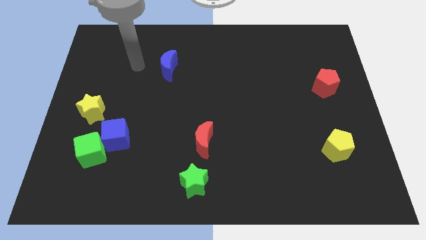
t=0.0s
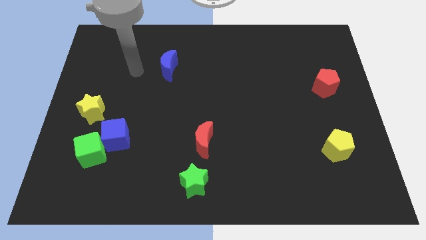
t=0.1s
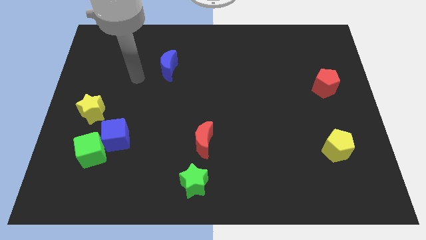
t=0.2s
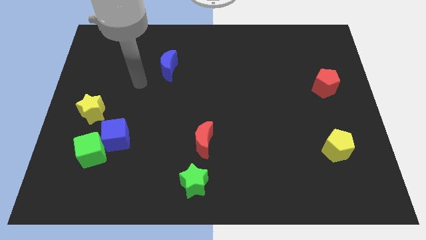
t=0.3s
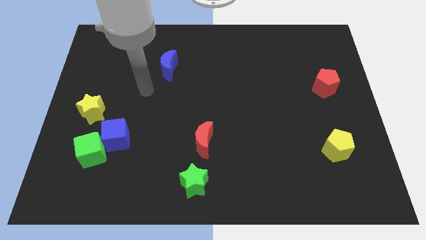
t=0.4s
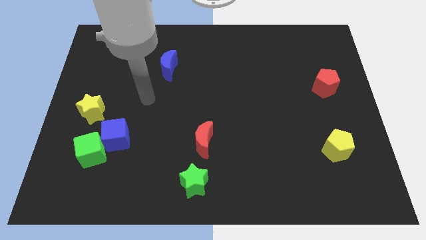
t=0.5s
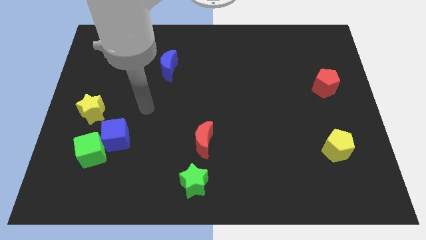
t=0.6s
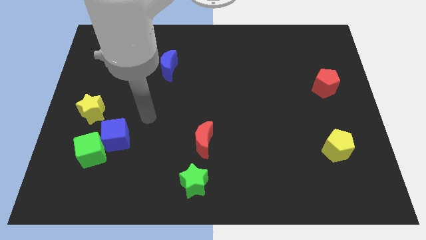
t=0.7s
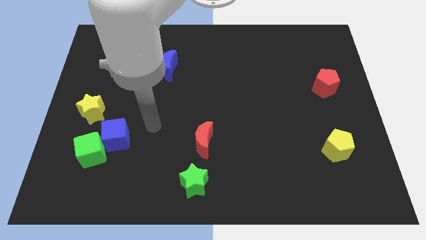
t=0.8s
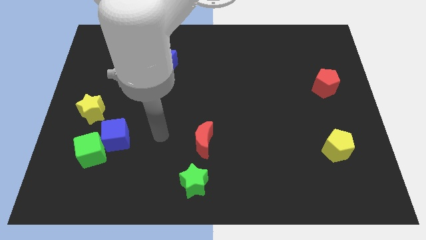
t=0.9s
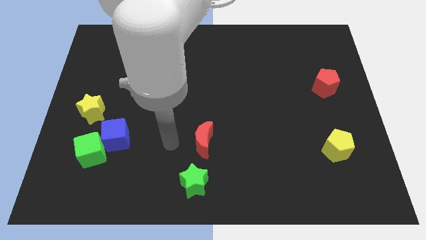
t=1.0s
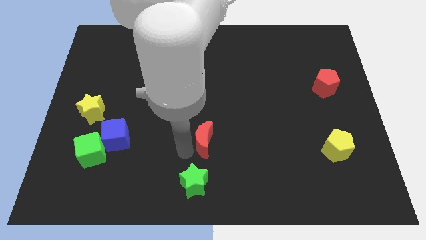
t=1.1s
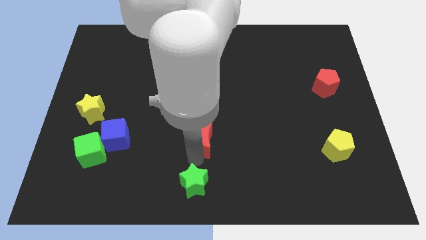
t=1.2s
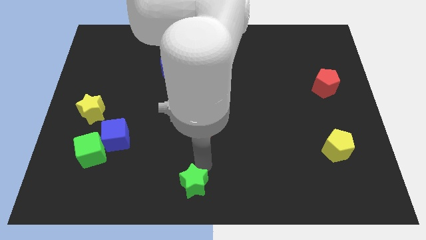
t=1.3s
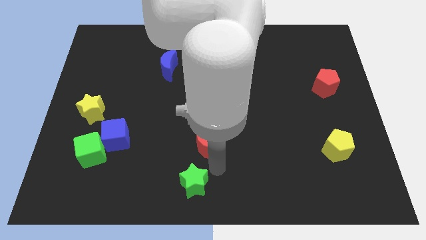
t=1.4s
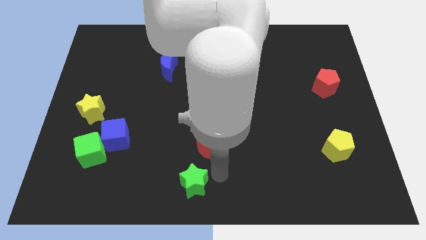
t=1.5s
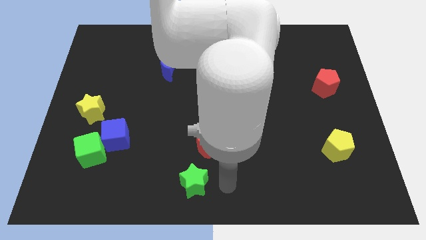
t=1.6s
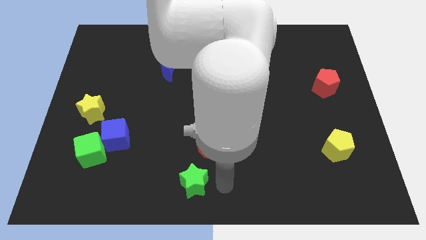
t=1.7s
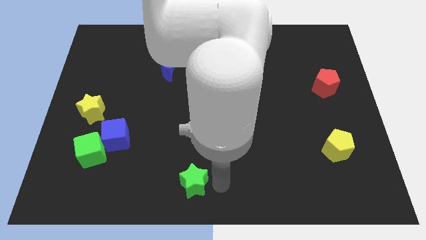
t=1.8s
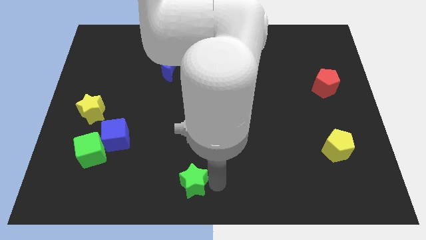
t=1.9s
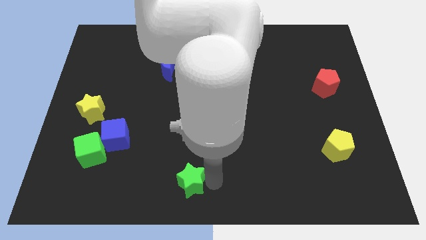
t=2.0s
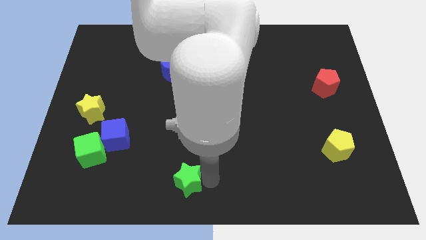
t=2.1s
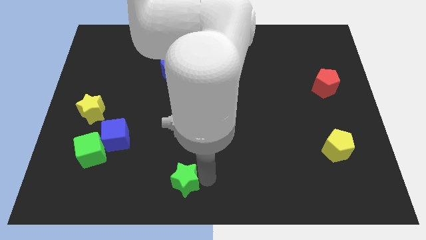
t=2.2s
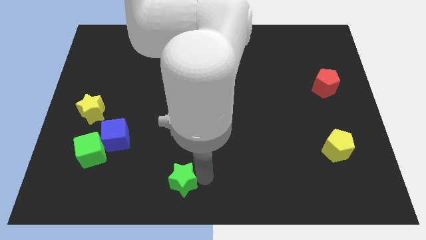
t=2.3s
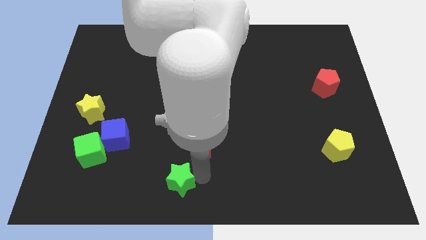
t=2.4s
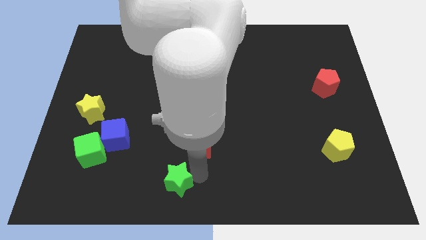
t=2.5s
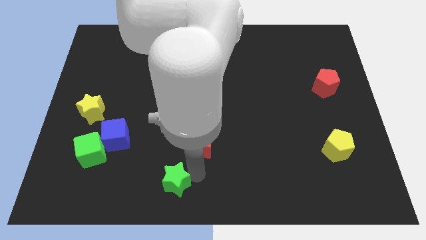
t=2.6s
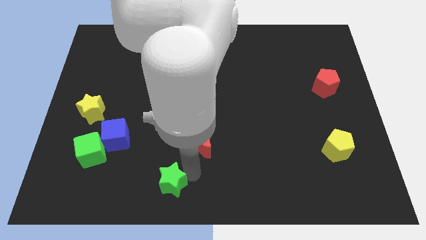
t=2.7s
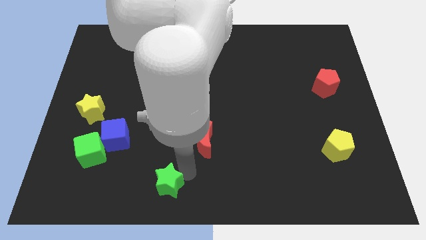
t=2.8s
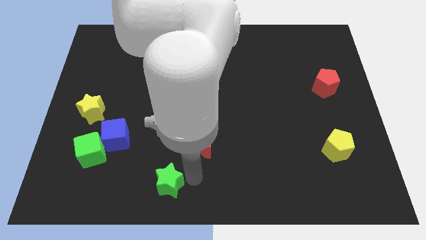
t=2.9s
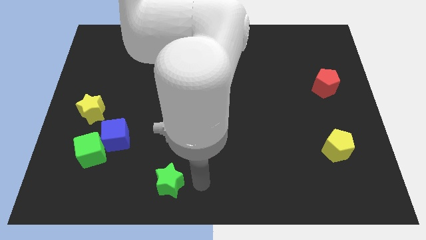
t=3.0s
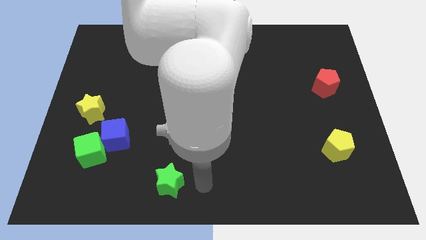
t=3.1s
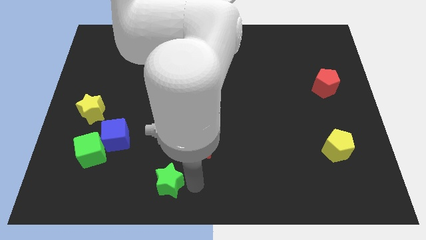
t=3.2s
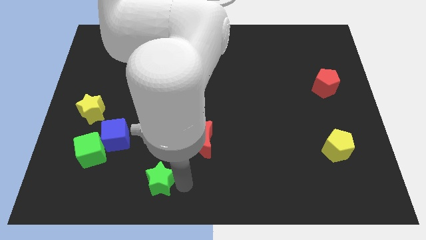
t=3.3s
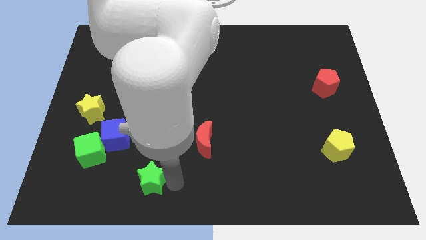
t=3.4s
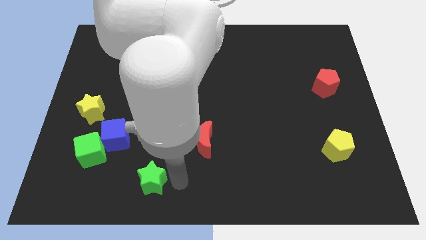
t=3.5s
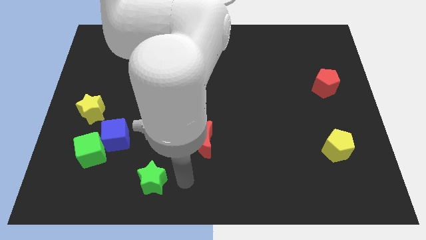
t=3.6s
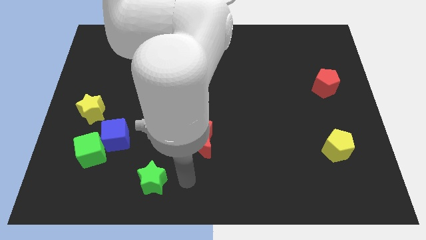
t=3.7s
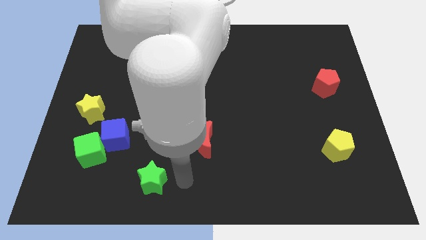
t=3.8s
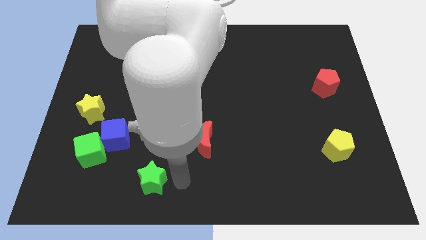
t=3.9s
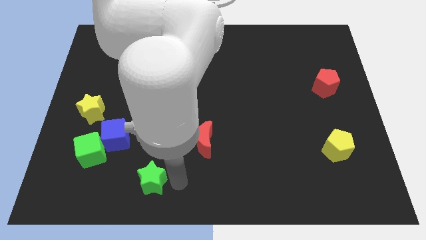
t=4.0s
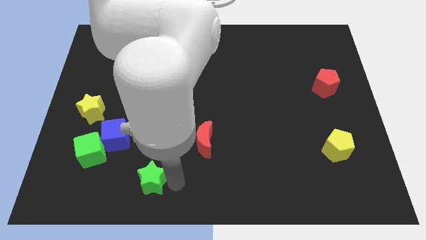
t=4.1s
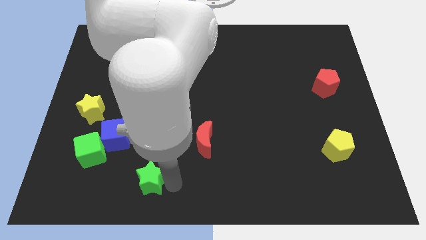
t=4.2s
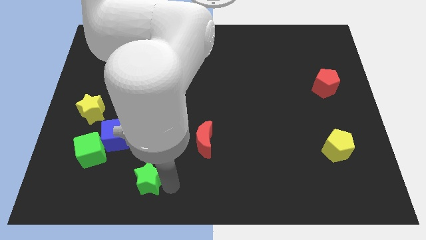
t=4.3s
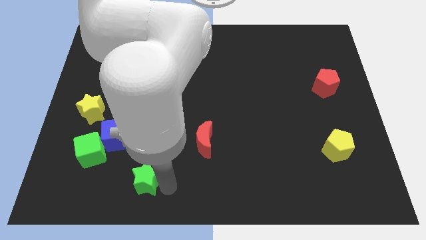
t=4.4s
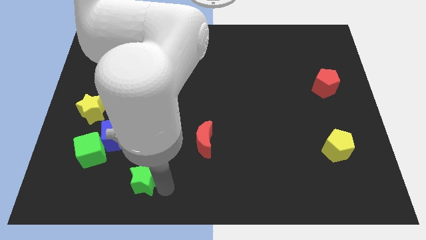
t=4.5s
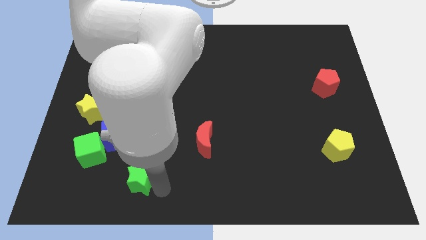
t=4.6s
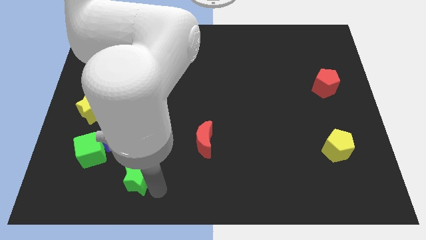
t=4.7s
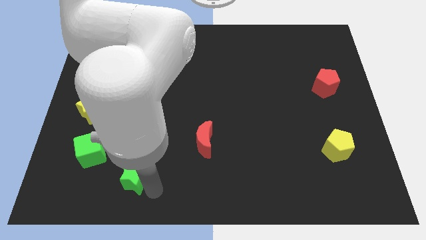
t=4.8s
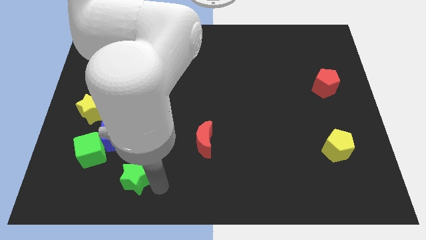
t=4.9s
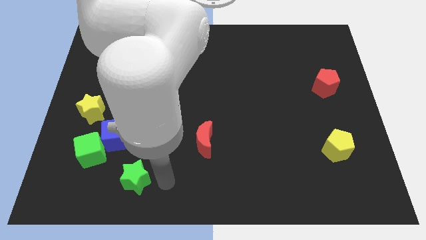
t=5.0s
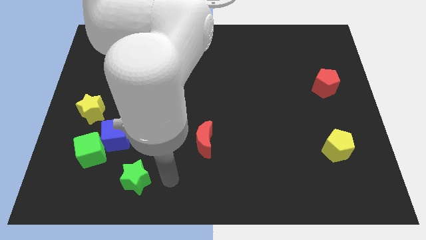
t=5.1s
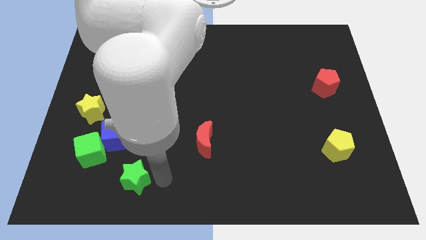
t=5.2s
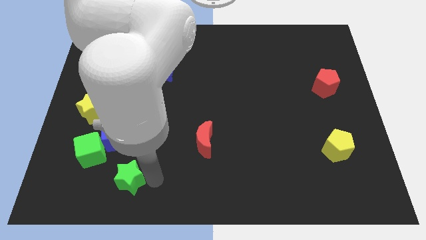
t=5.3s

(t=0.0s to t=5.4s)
put the green star to the bottom side of the blue cube

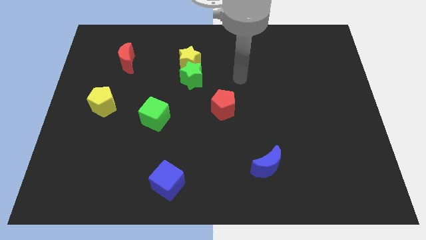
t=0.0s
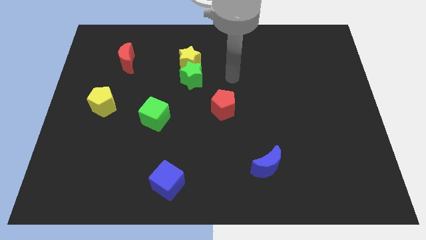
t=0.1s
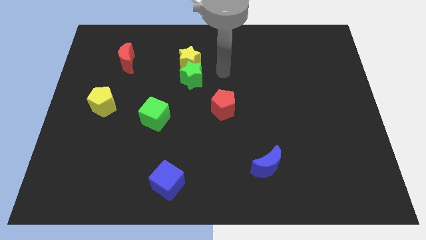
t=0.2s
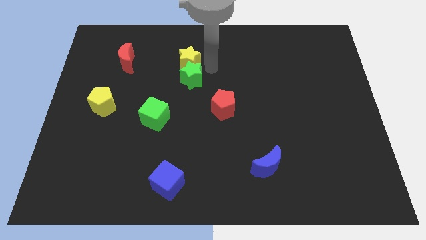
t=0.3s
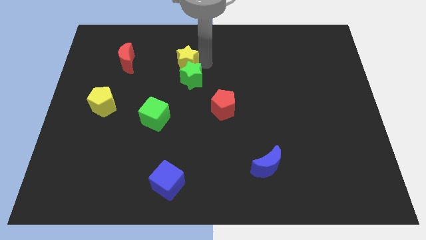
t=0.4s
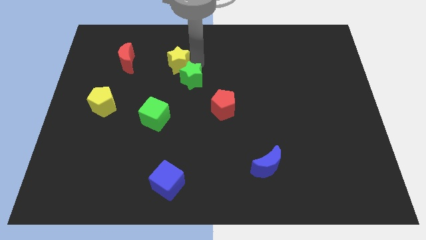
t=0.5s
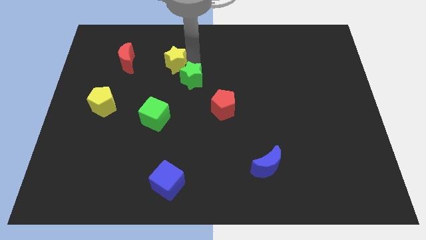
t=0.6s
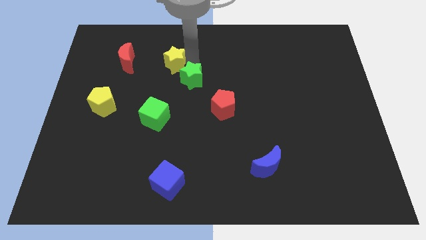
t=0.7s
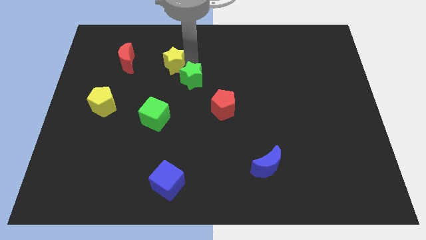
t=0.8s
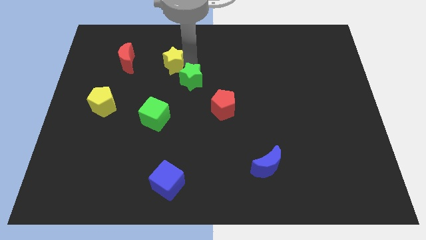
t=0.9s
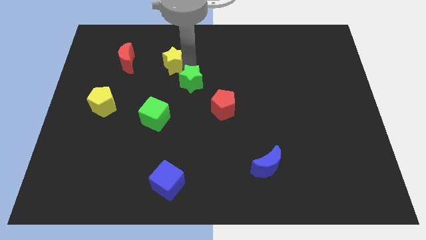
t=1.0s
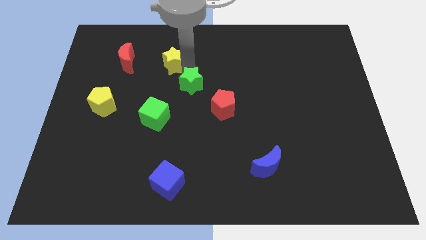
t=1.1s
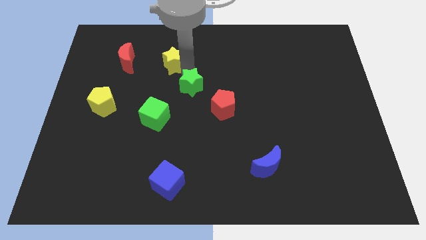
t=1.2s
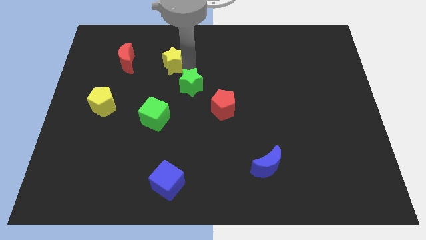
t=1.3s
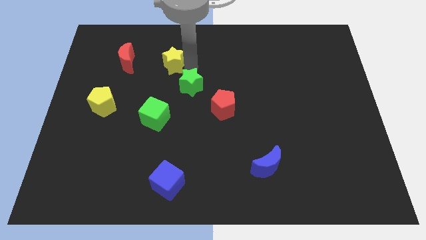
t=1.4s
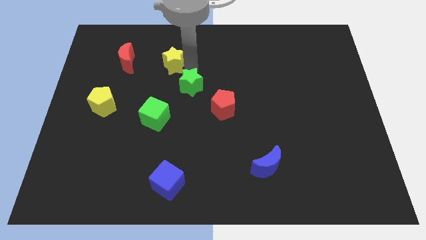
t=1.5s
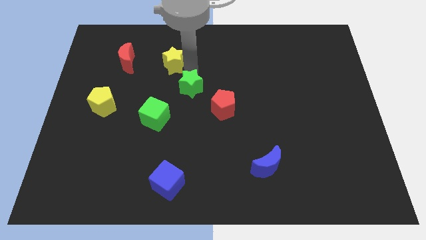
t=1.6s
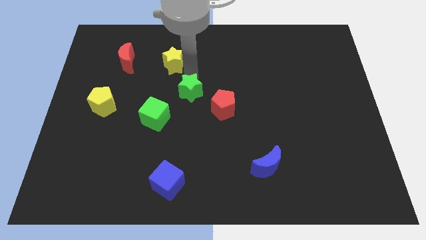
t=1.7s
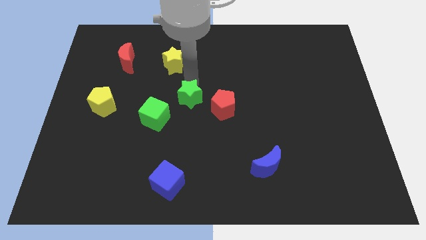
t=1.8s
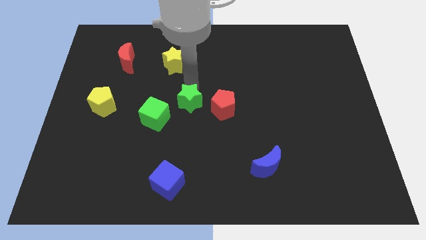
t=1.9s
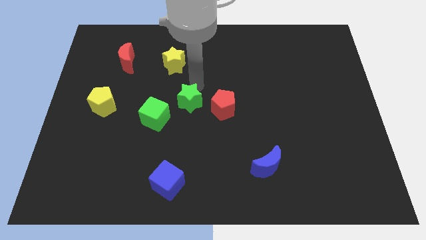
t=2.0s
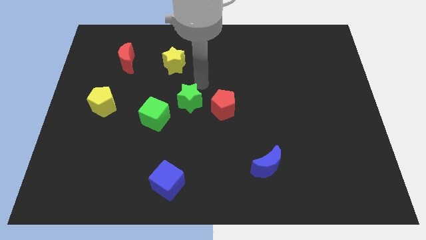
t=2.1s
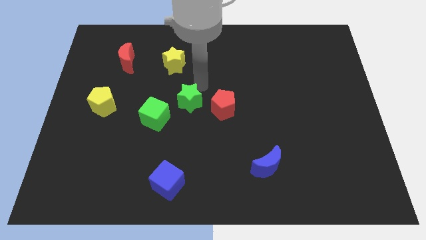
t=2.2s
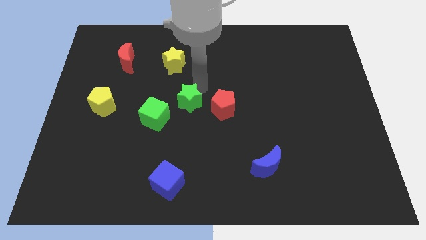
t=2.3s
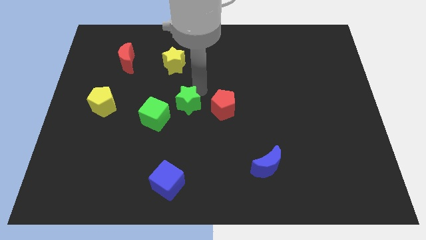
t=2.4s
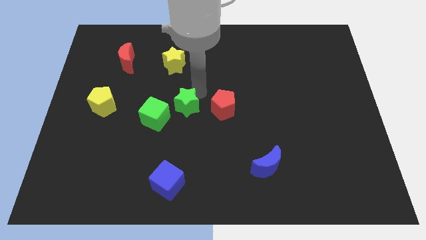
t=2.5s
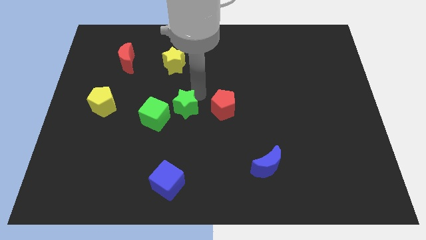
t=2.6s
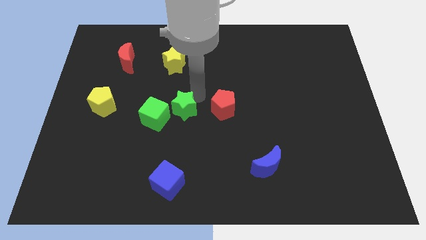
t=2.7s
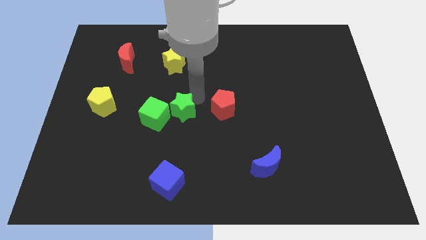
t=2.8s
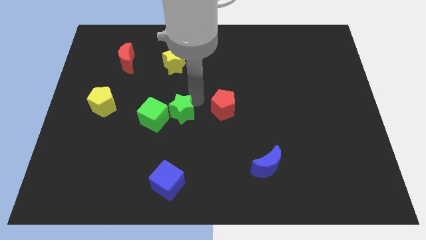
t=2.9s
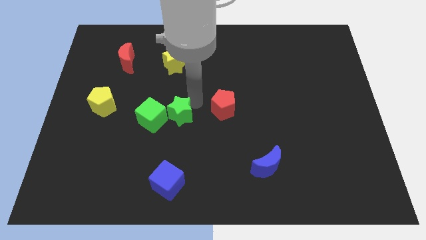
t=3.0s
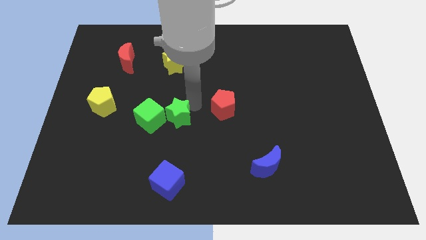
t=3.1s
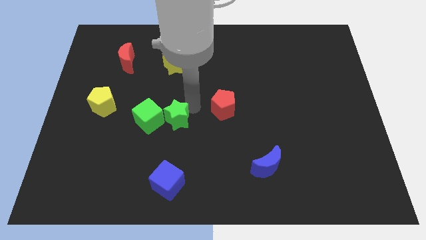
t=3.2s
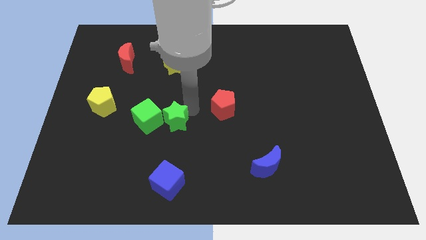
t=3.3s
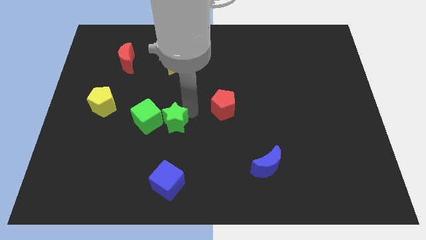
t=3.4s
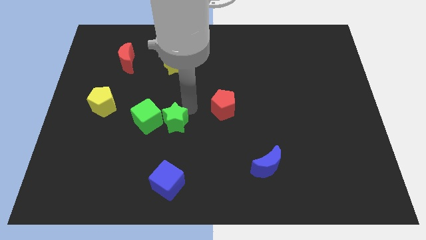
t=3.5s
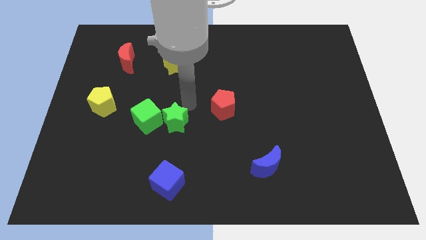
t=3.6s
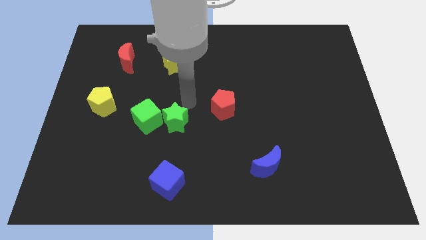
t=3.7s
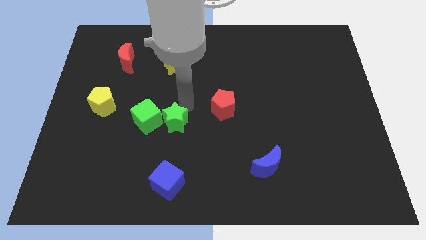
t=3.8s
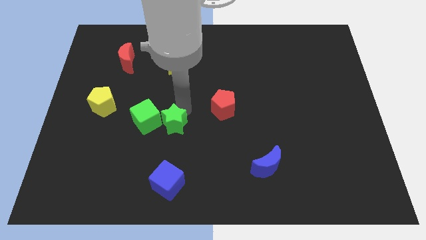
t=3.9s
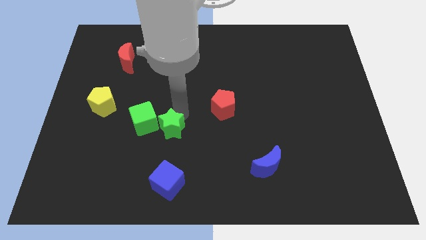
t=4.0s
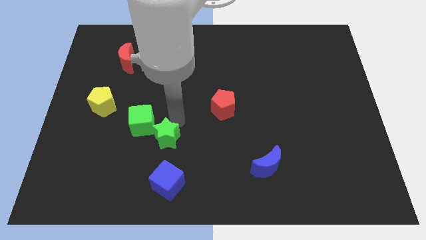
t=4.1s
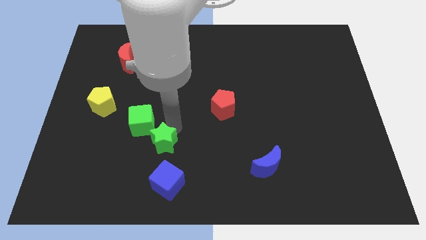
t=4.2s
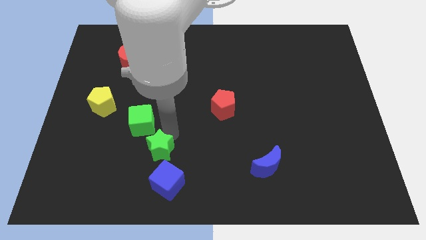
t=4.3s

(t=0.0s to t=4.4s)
move the green star diagonally up and to the left of the blue cube
